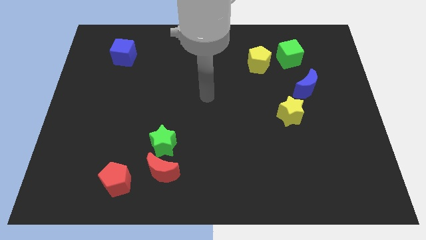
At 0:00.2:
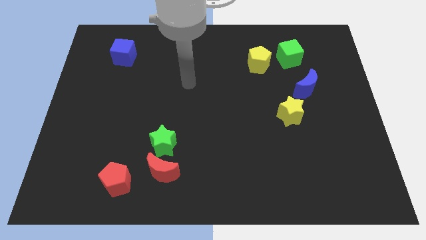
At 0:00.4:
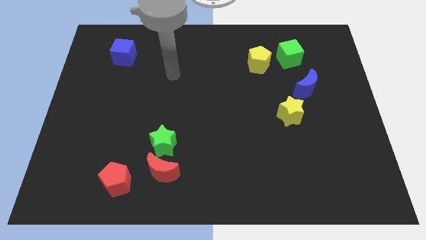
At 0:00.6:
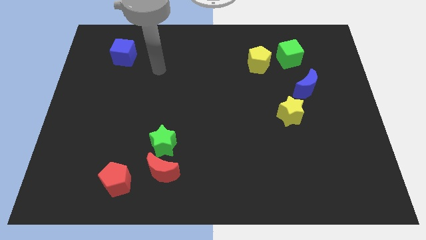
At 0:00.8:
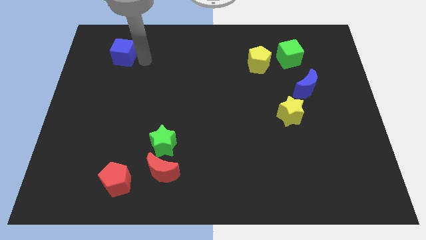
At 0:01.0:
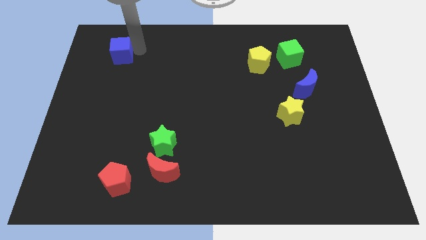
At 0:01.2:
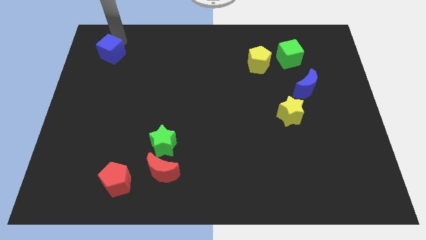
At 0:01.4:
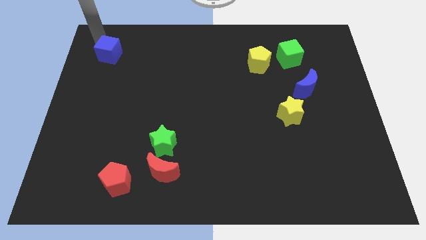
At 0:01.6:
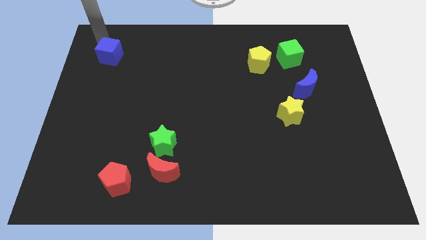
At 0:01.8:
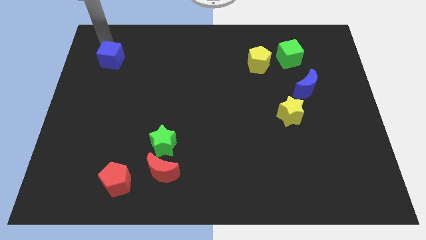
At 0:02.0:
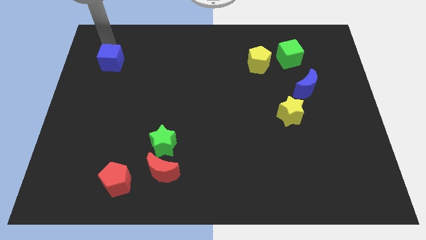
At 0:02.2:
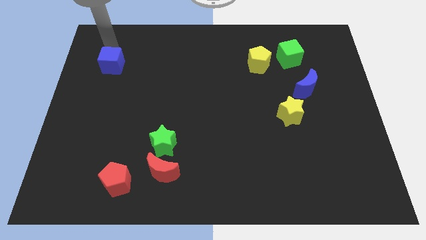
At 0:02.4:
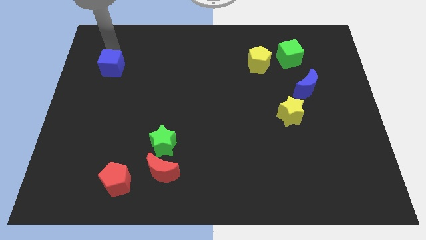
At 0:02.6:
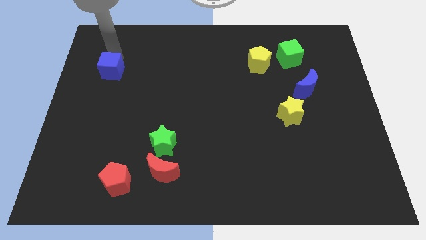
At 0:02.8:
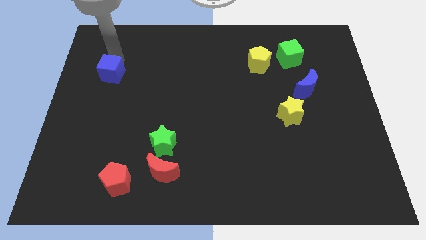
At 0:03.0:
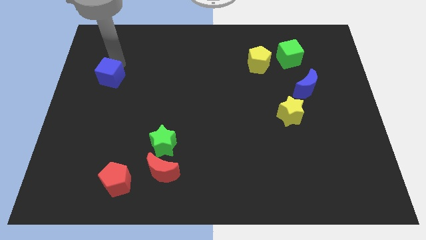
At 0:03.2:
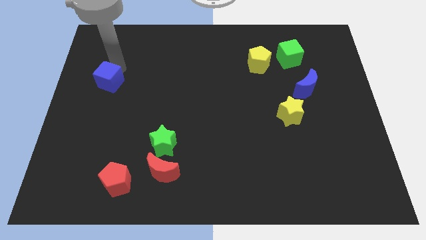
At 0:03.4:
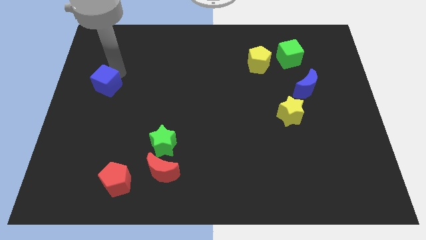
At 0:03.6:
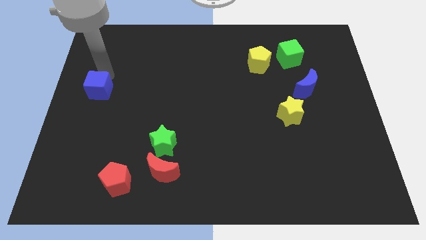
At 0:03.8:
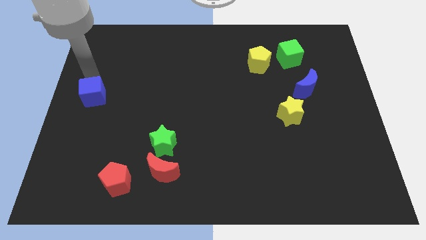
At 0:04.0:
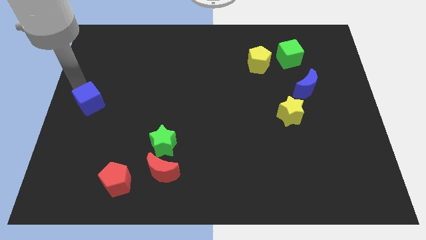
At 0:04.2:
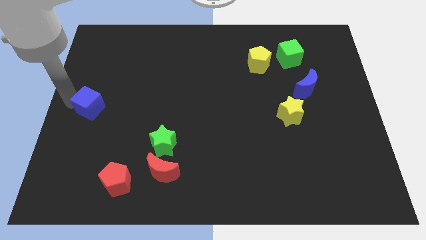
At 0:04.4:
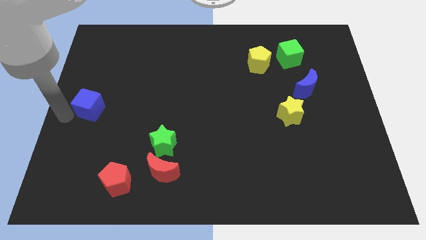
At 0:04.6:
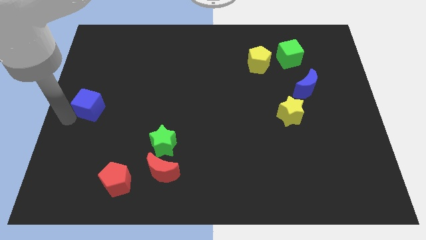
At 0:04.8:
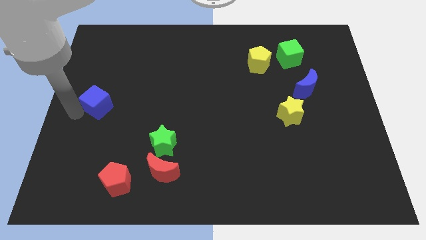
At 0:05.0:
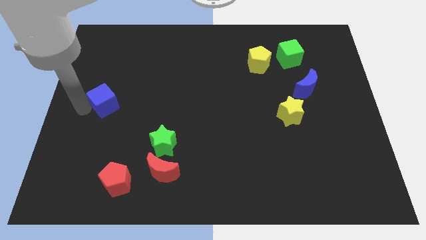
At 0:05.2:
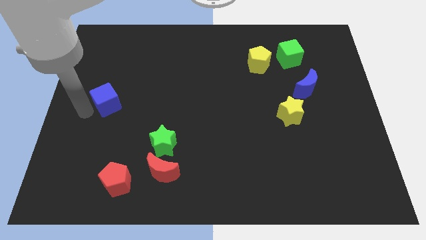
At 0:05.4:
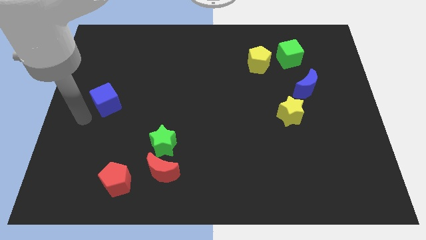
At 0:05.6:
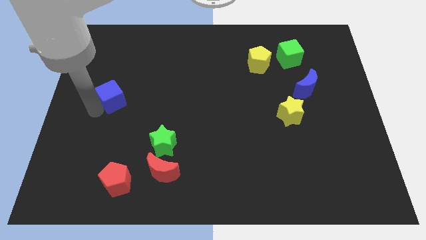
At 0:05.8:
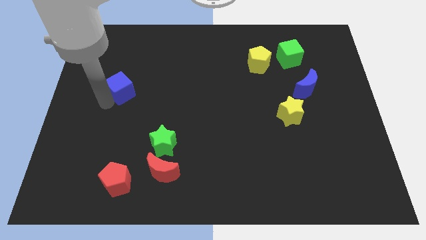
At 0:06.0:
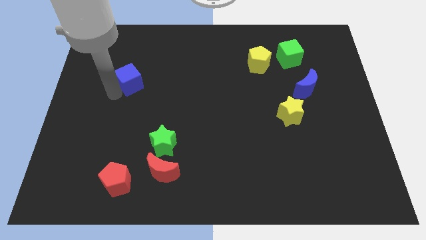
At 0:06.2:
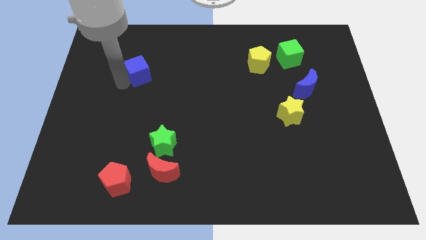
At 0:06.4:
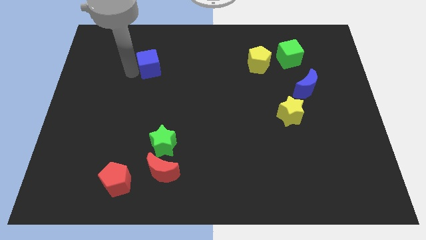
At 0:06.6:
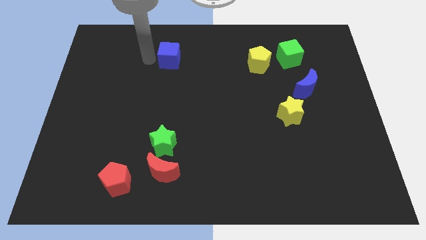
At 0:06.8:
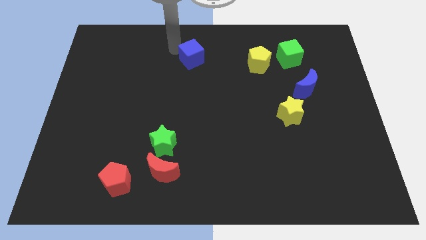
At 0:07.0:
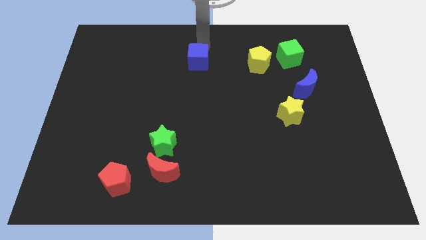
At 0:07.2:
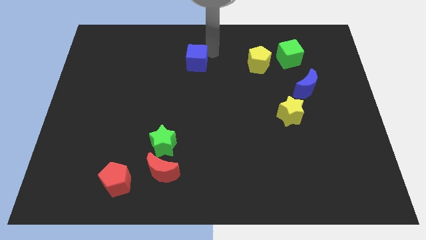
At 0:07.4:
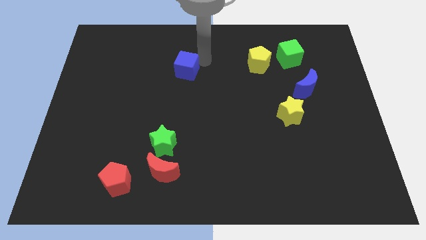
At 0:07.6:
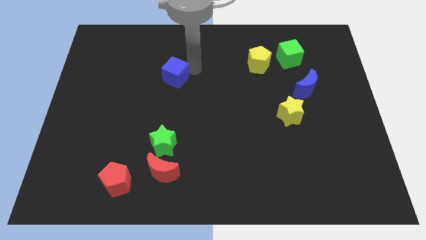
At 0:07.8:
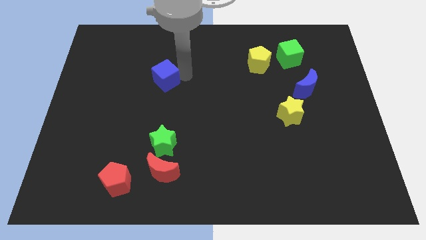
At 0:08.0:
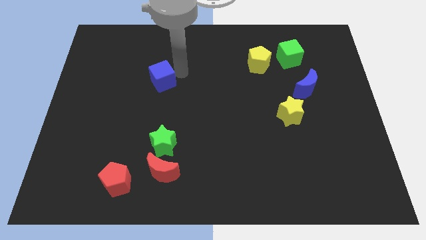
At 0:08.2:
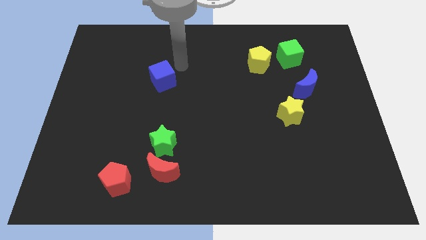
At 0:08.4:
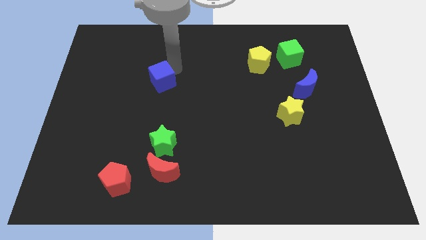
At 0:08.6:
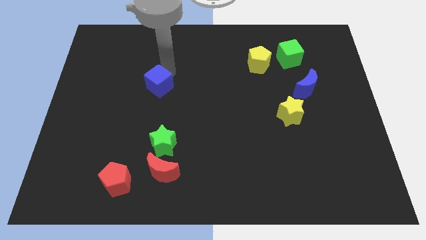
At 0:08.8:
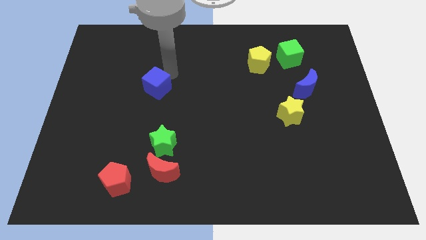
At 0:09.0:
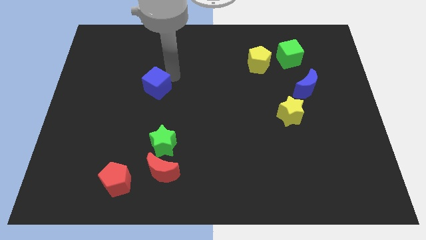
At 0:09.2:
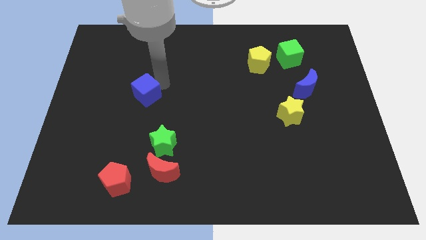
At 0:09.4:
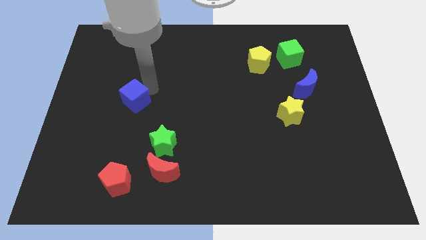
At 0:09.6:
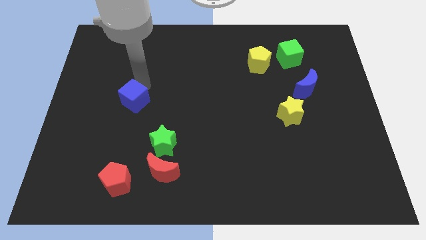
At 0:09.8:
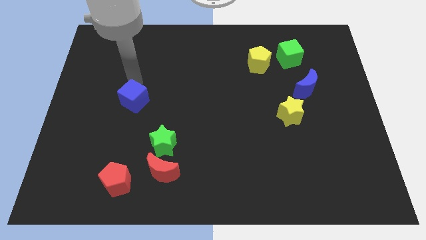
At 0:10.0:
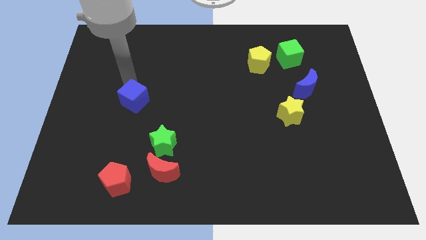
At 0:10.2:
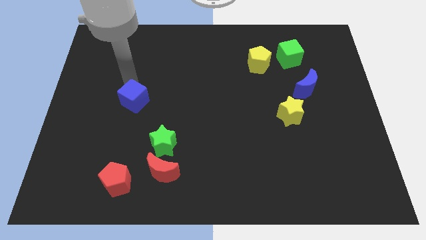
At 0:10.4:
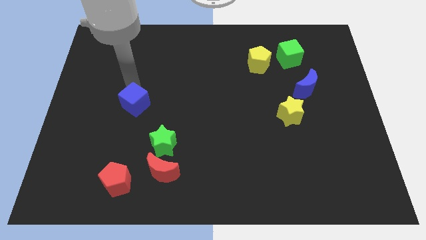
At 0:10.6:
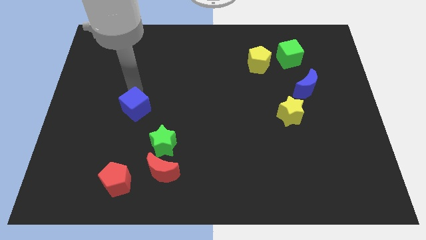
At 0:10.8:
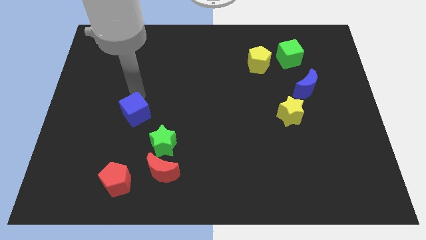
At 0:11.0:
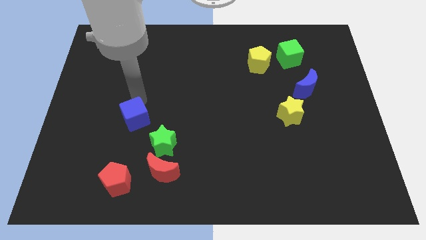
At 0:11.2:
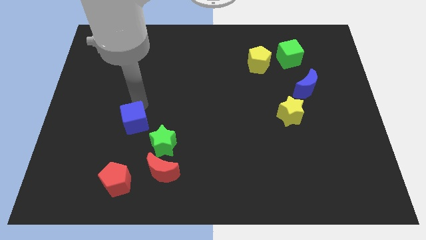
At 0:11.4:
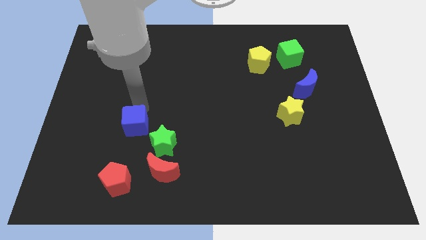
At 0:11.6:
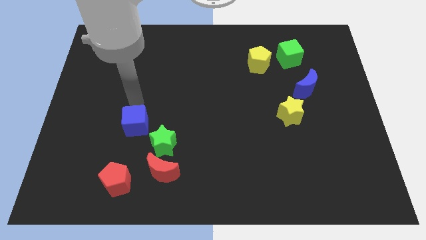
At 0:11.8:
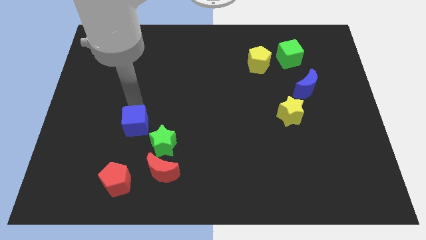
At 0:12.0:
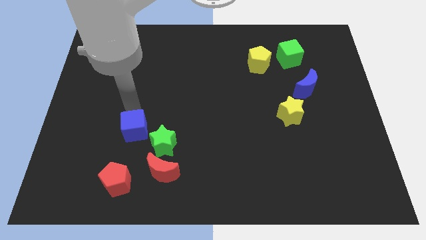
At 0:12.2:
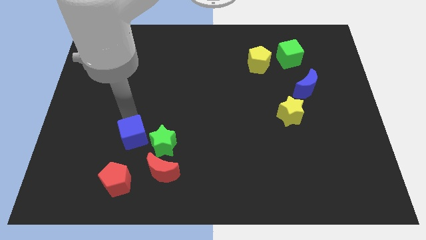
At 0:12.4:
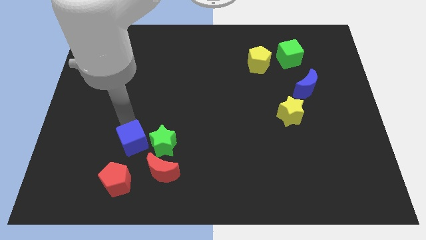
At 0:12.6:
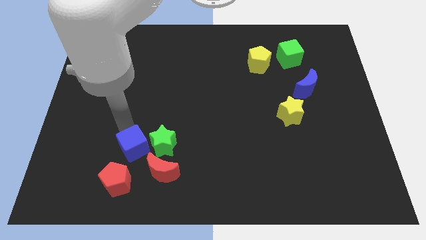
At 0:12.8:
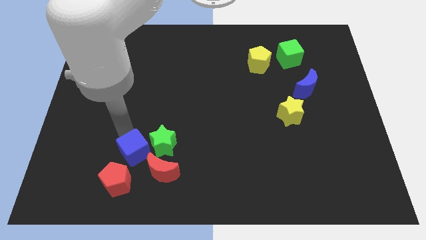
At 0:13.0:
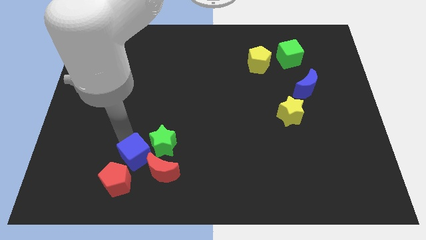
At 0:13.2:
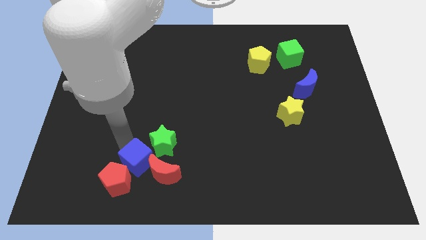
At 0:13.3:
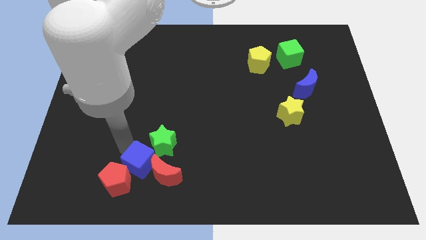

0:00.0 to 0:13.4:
move the blue cube next to the red moon

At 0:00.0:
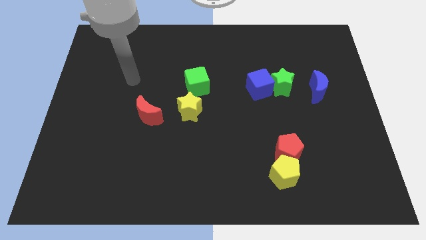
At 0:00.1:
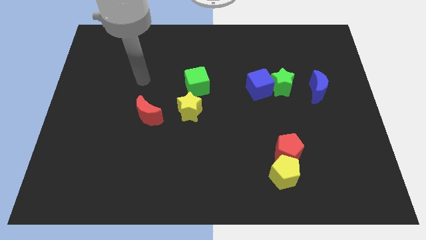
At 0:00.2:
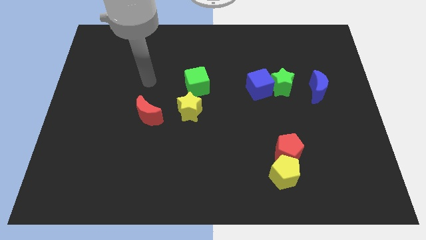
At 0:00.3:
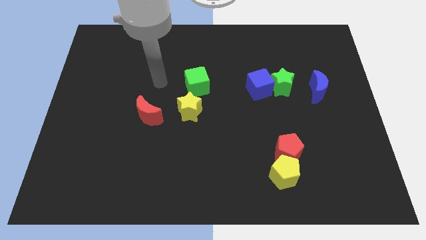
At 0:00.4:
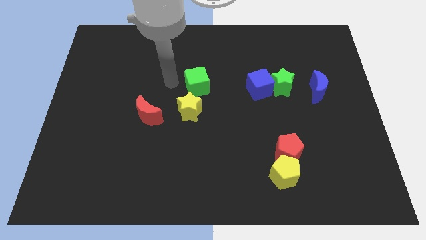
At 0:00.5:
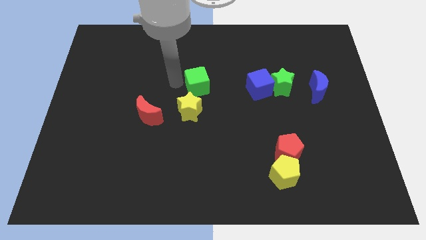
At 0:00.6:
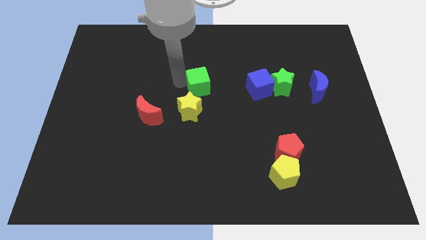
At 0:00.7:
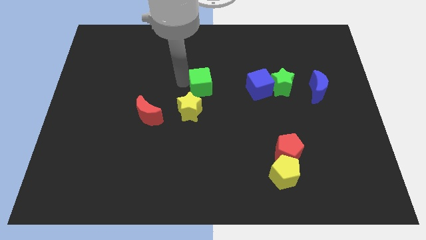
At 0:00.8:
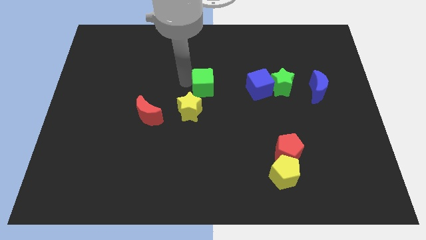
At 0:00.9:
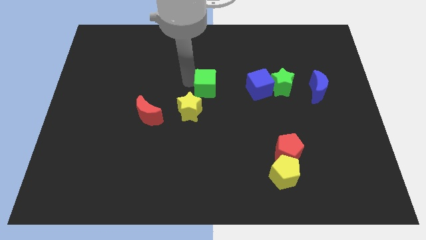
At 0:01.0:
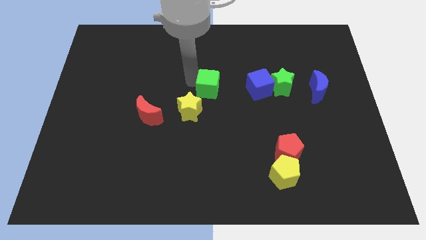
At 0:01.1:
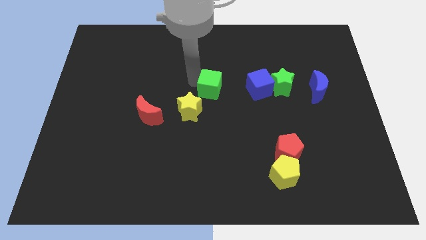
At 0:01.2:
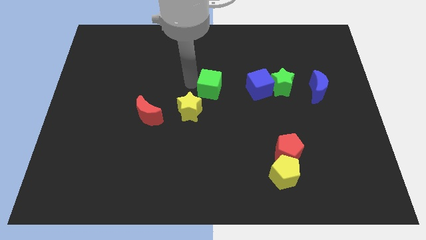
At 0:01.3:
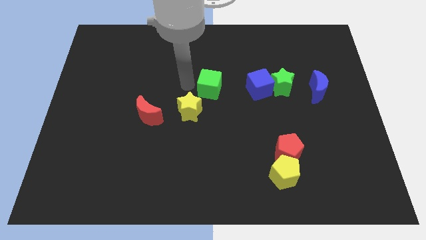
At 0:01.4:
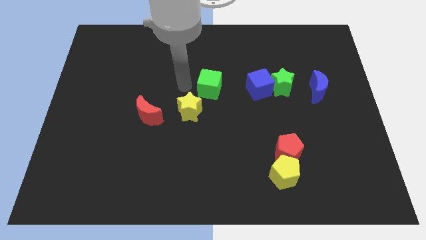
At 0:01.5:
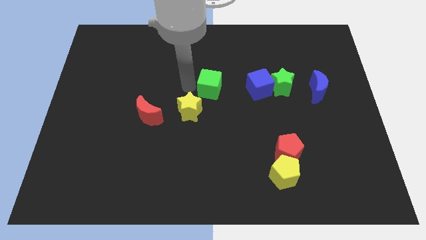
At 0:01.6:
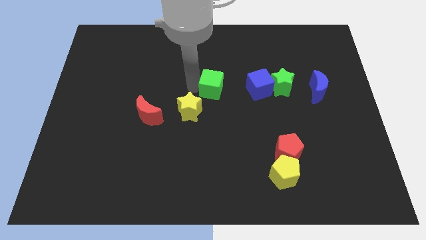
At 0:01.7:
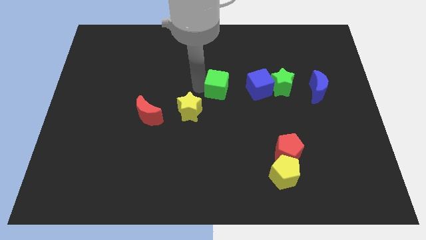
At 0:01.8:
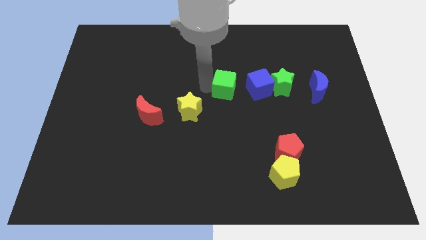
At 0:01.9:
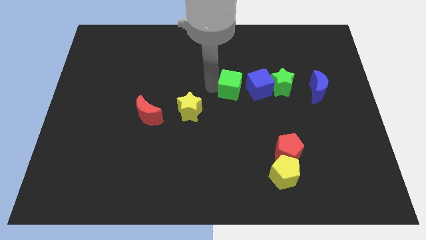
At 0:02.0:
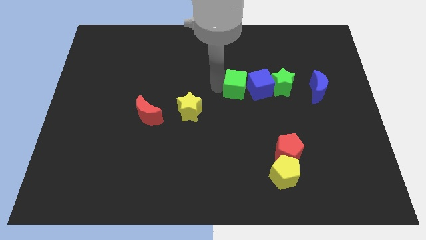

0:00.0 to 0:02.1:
move the green cube towards the blue cube
